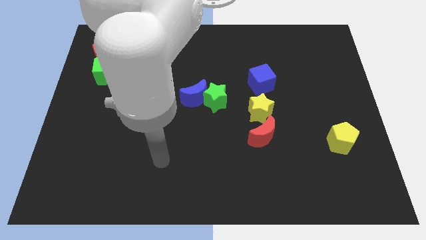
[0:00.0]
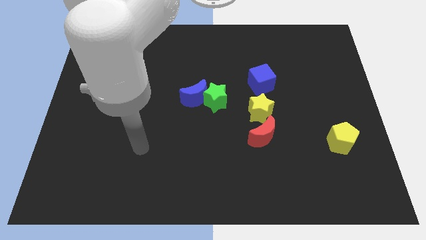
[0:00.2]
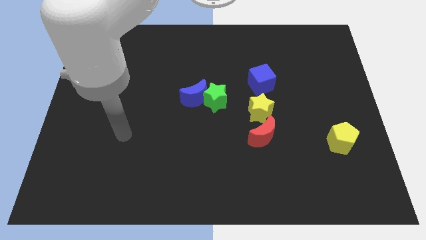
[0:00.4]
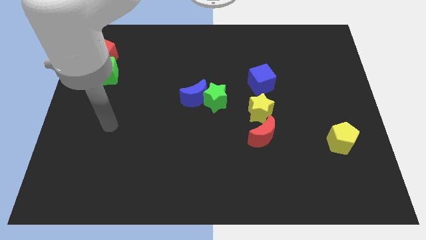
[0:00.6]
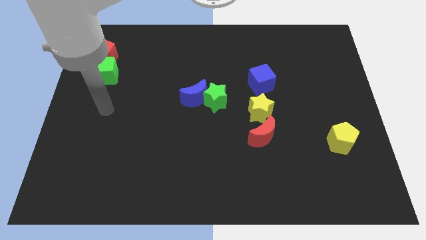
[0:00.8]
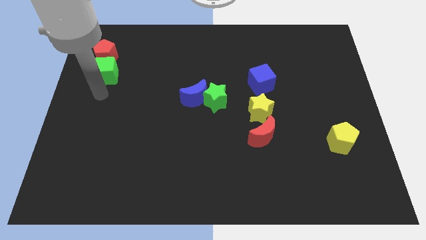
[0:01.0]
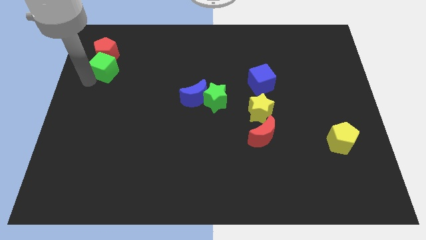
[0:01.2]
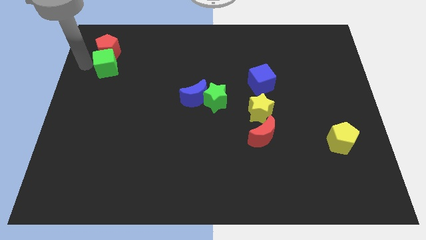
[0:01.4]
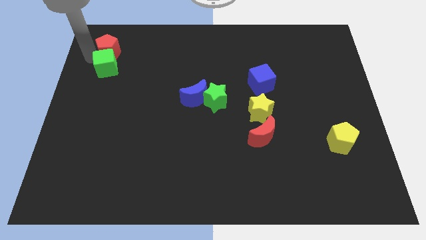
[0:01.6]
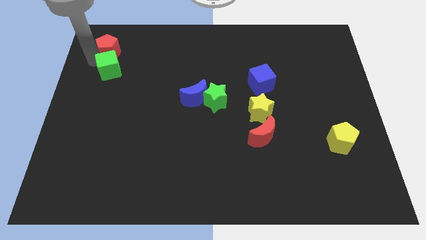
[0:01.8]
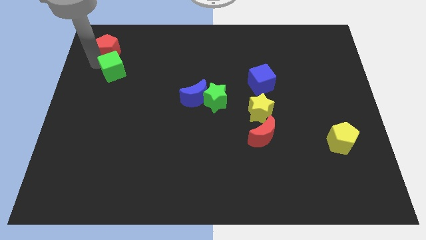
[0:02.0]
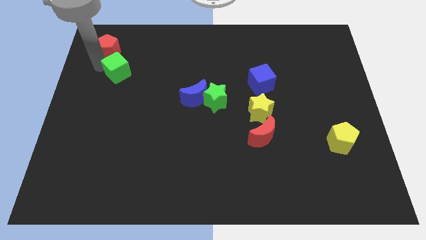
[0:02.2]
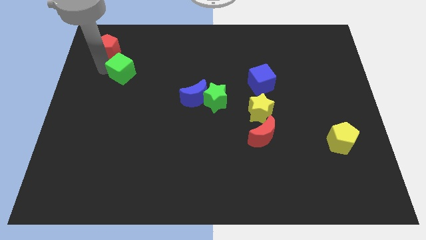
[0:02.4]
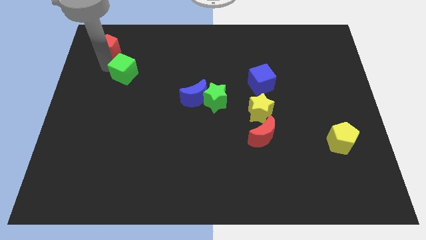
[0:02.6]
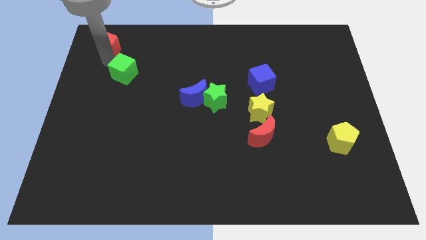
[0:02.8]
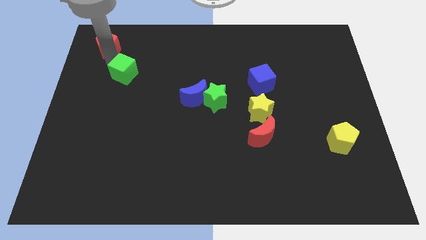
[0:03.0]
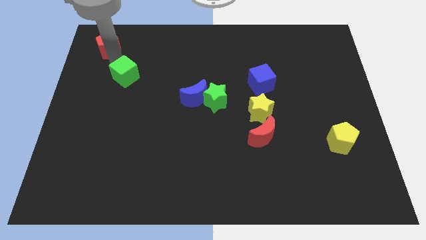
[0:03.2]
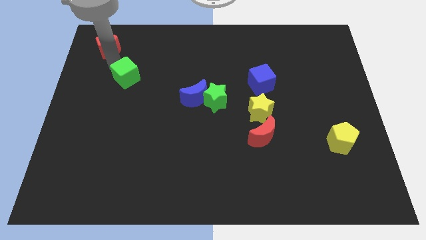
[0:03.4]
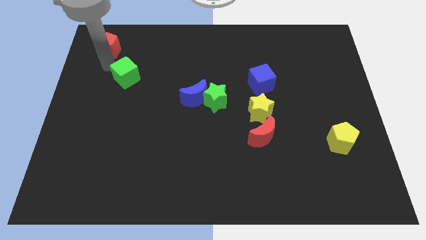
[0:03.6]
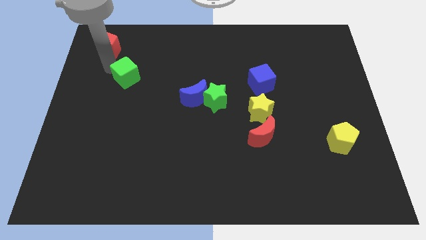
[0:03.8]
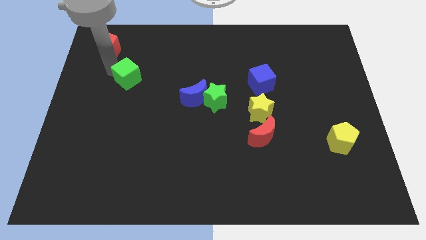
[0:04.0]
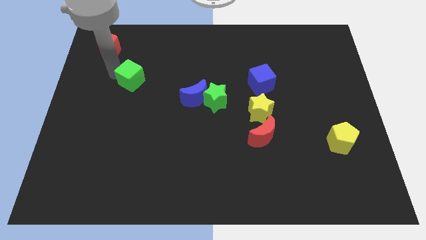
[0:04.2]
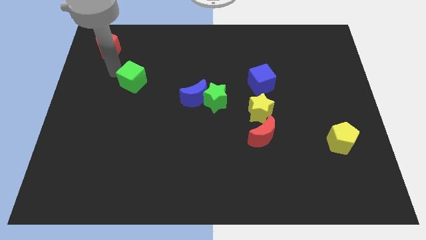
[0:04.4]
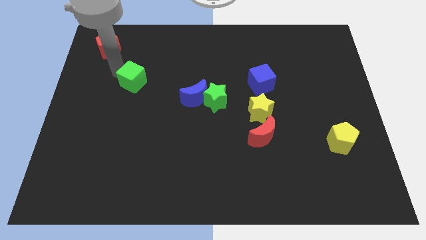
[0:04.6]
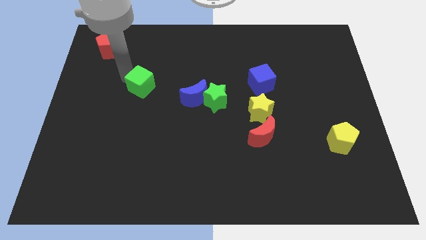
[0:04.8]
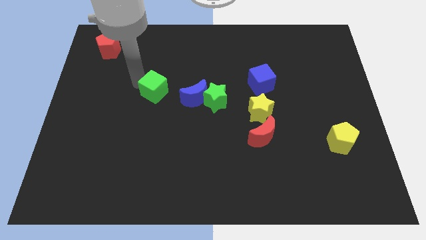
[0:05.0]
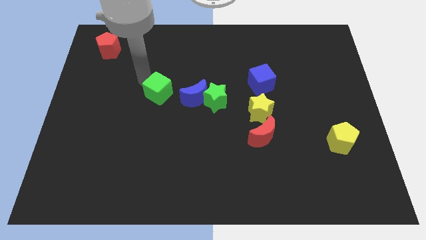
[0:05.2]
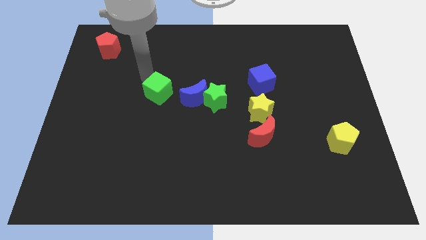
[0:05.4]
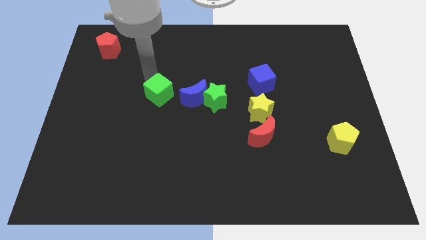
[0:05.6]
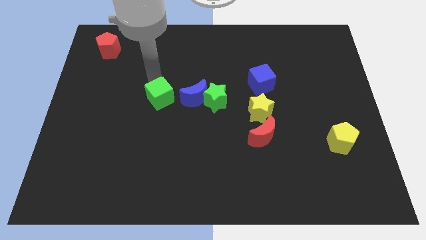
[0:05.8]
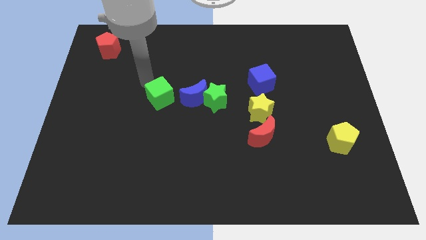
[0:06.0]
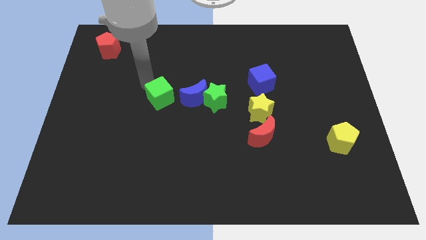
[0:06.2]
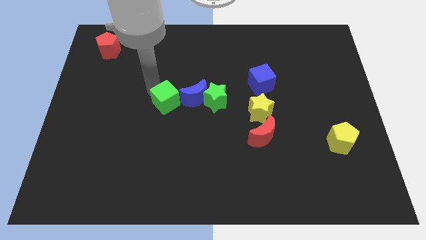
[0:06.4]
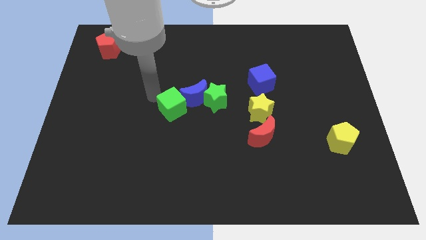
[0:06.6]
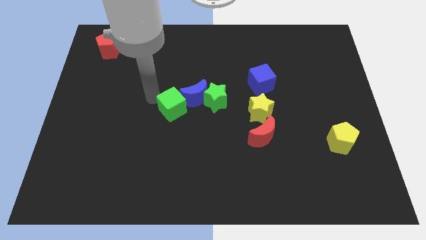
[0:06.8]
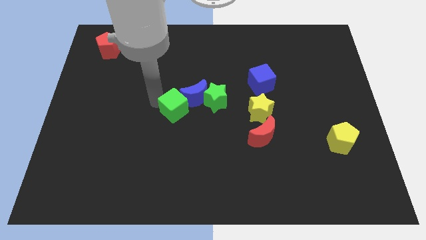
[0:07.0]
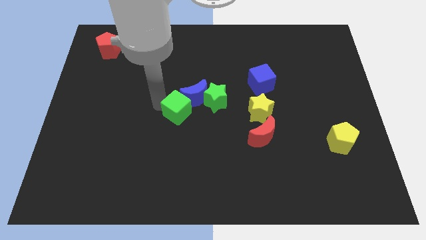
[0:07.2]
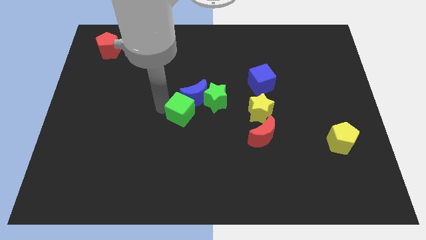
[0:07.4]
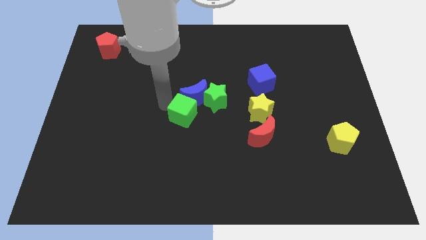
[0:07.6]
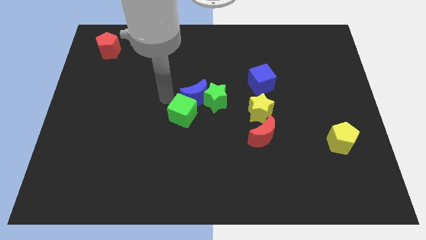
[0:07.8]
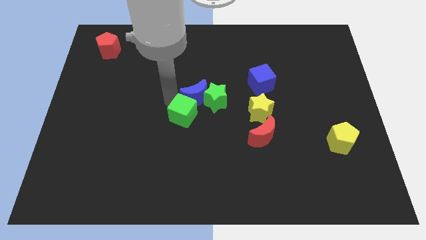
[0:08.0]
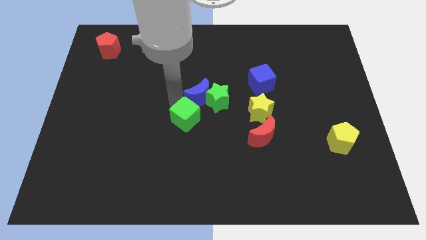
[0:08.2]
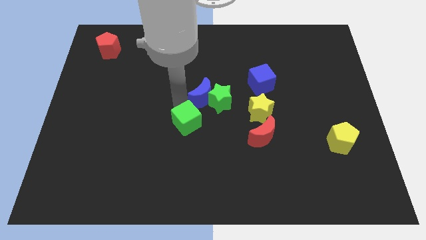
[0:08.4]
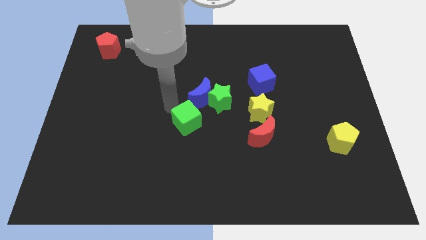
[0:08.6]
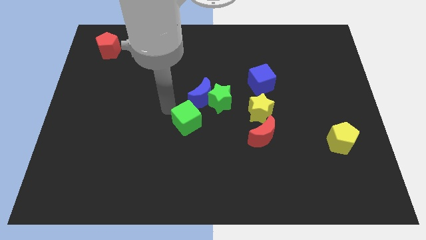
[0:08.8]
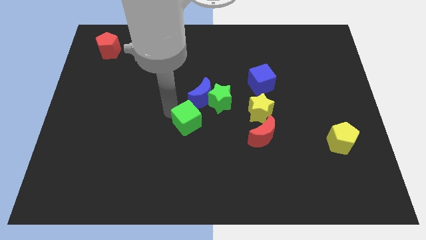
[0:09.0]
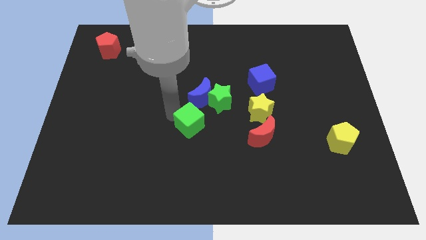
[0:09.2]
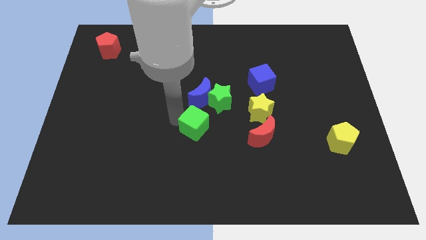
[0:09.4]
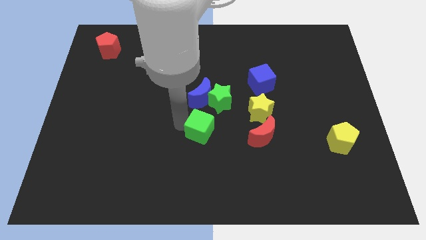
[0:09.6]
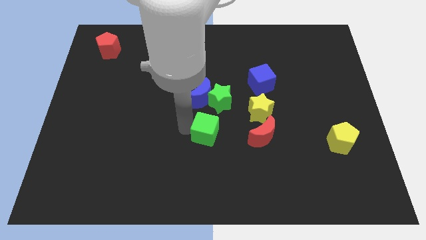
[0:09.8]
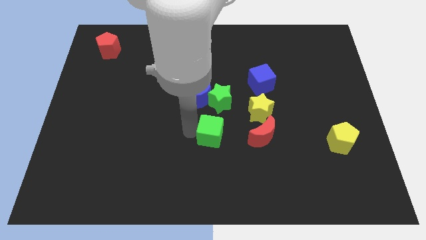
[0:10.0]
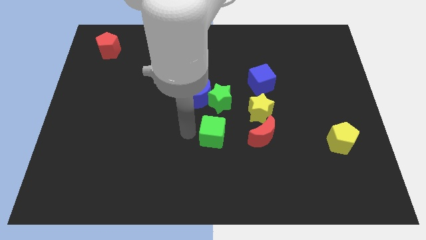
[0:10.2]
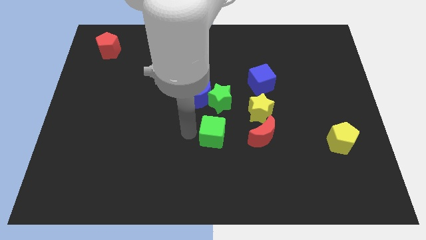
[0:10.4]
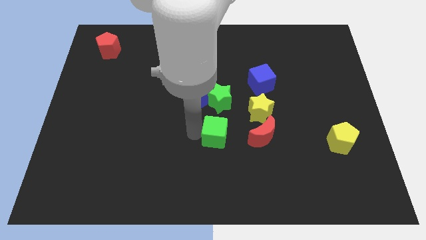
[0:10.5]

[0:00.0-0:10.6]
put the green cube to the bottom left of the yellow star
